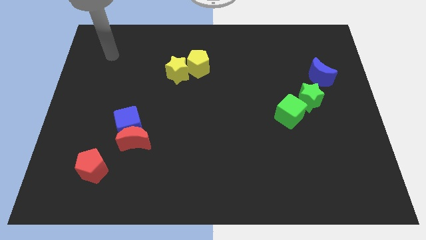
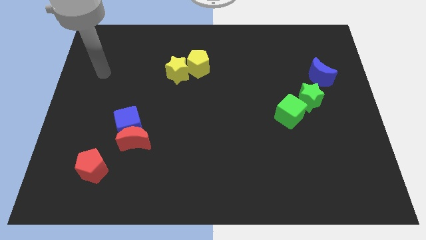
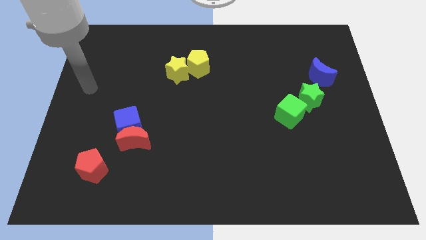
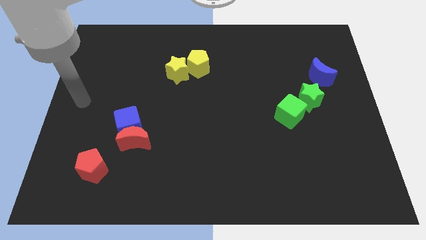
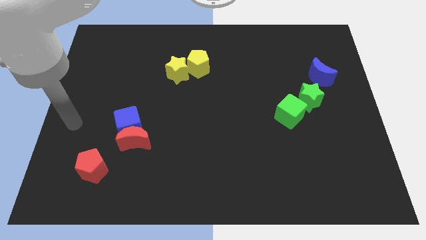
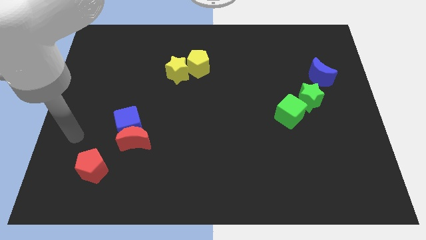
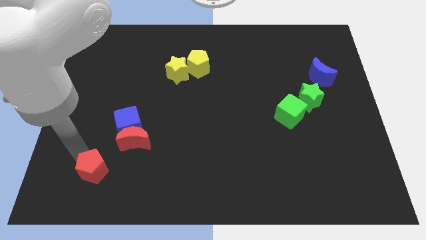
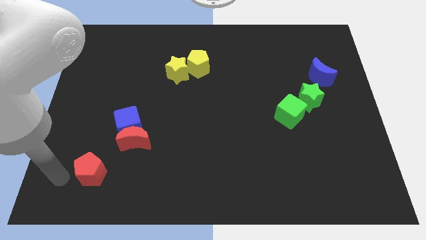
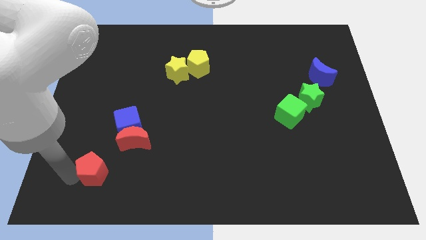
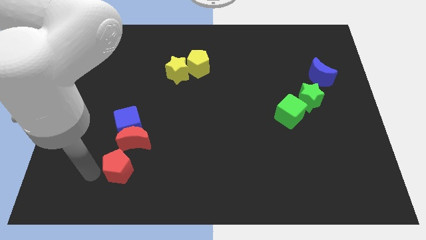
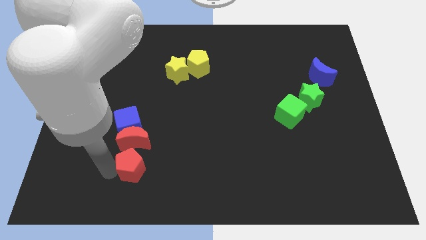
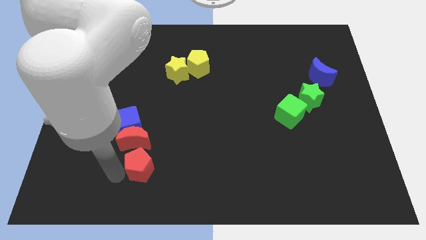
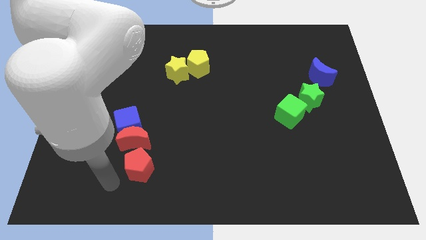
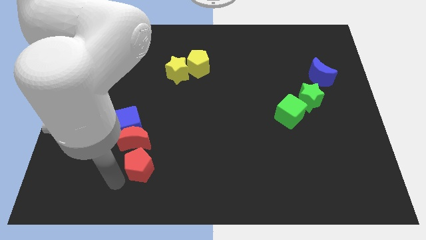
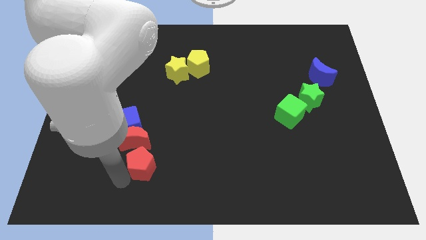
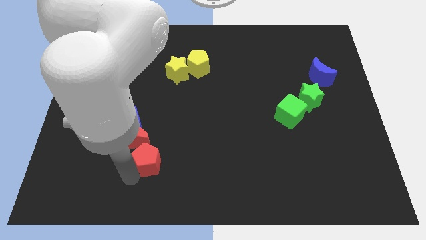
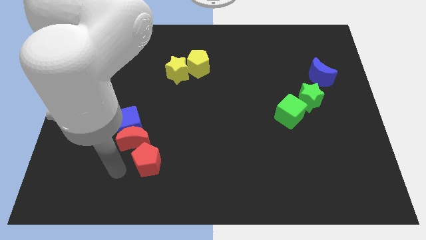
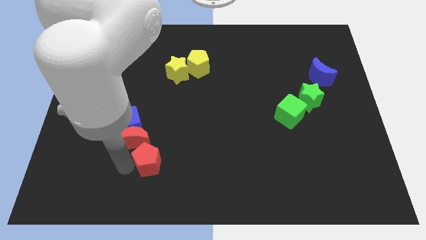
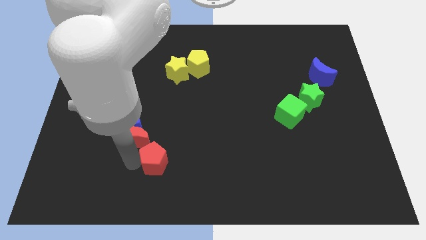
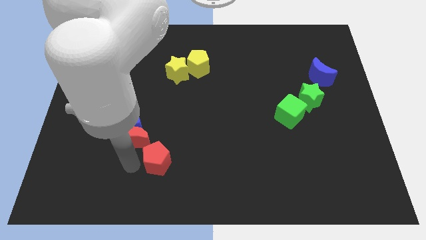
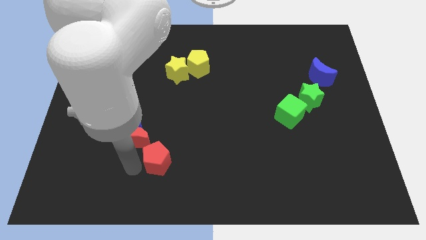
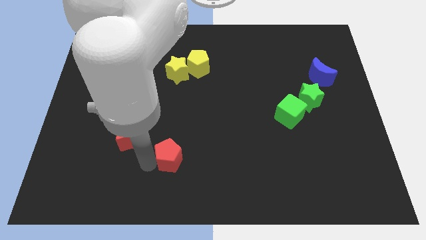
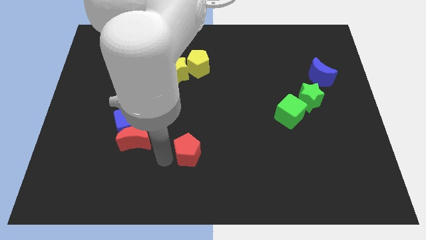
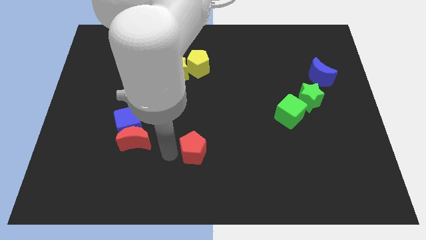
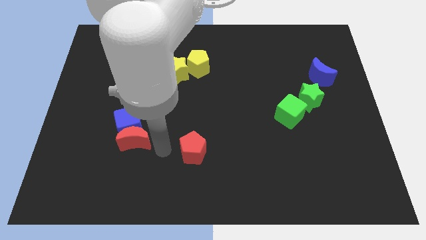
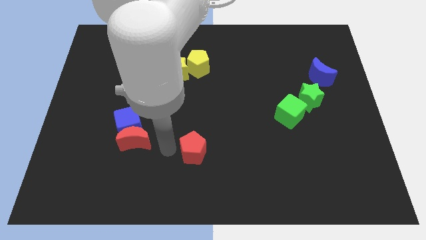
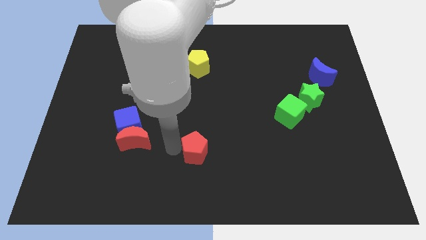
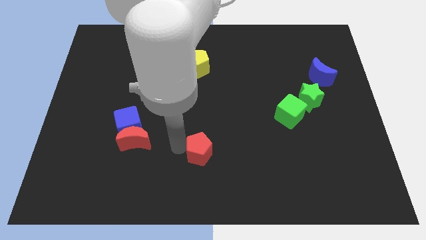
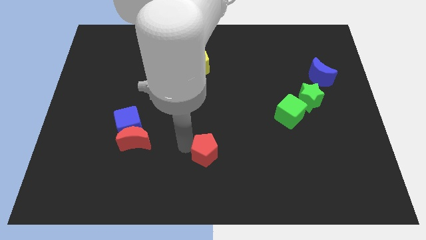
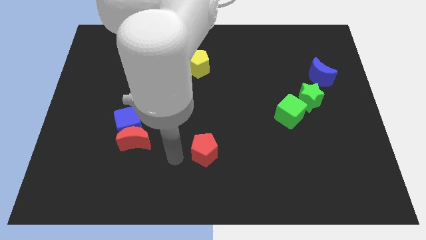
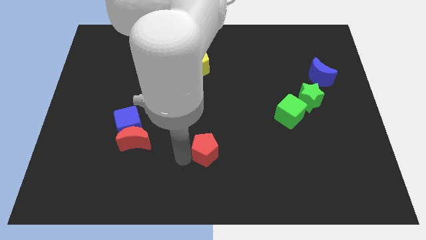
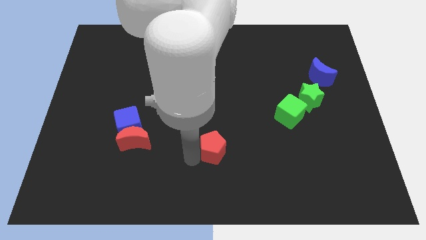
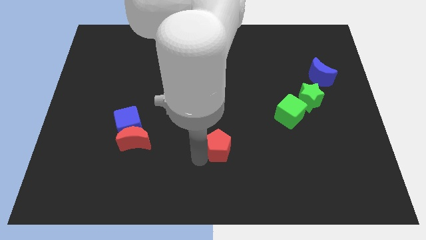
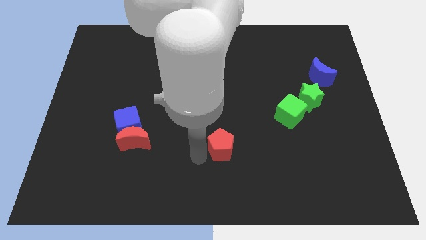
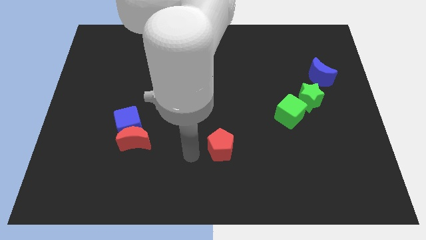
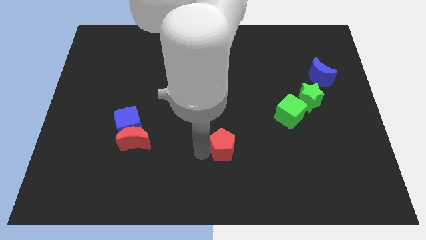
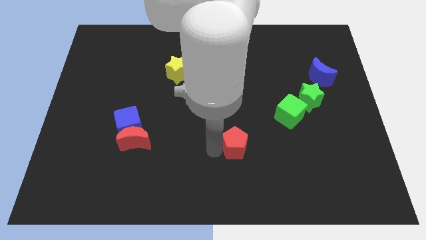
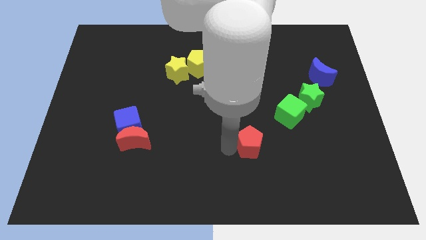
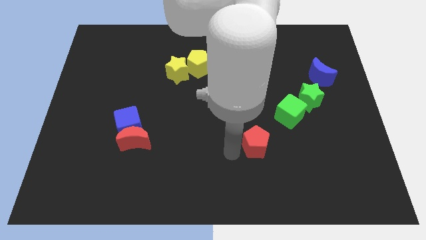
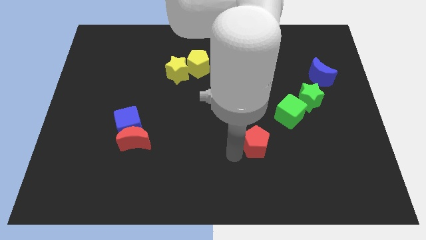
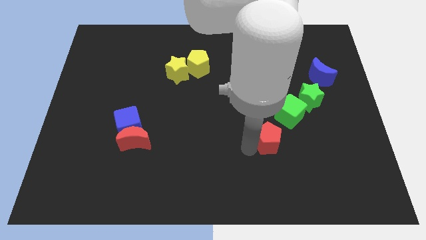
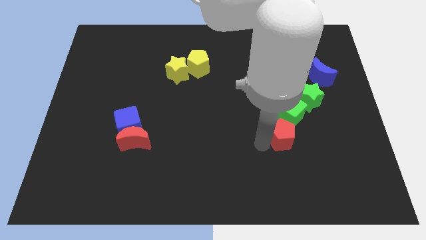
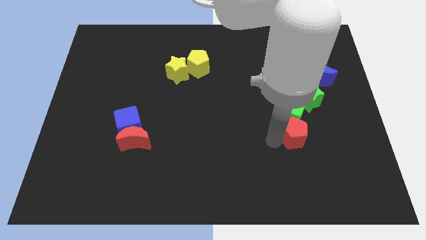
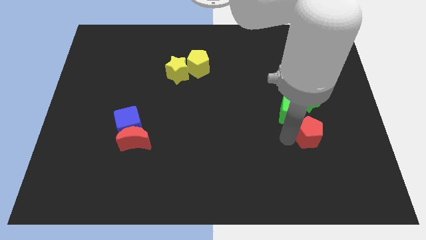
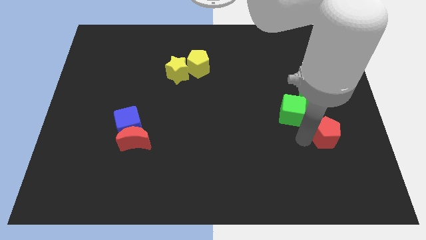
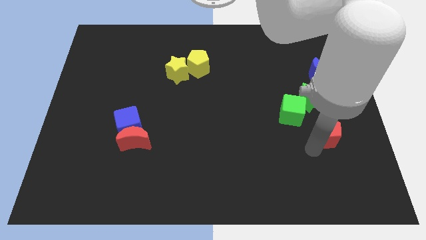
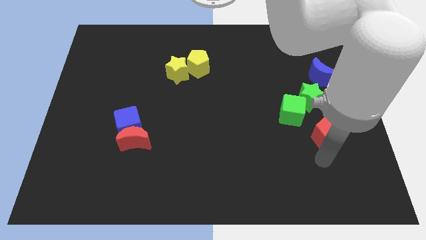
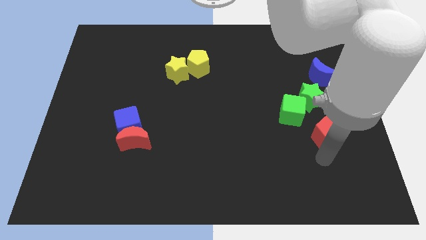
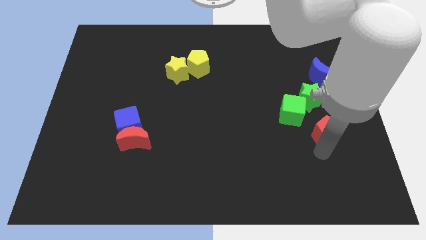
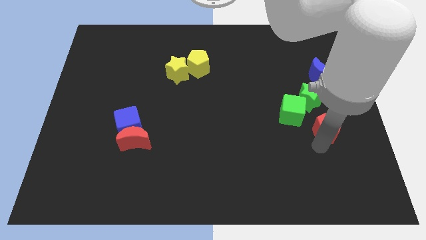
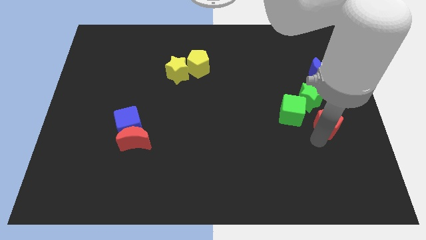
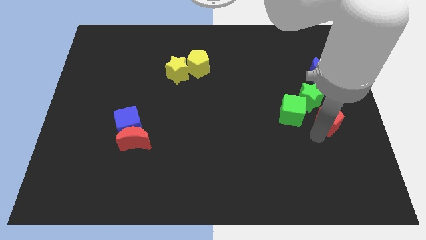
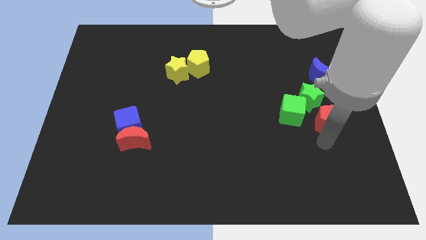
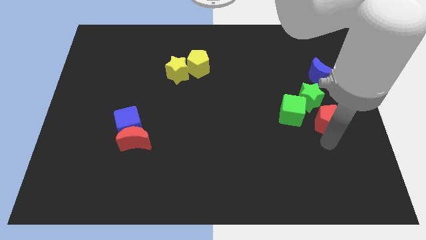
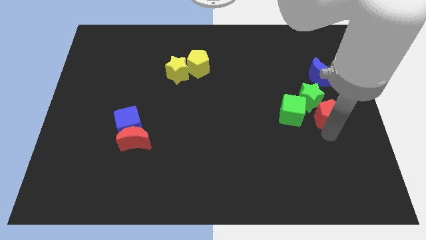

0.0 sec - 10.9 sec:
put the red pentagon to the right side of the board
